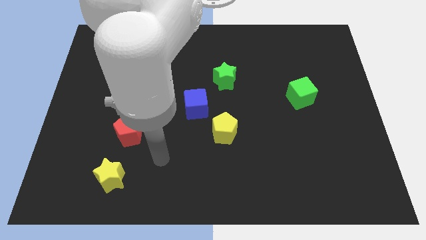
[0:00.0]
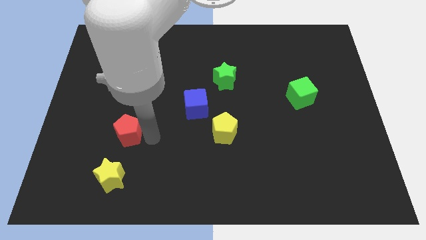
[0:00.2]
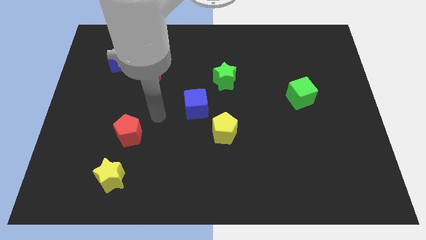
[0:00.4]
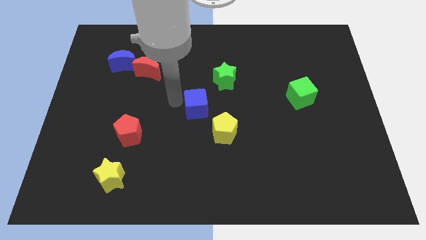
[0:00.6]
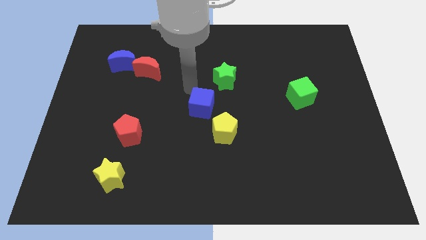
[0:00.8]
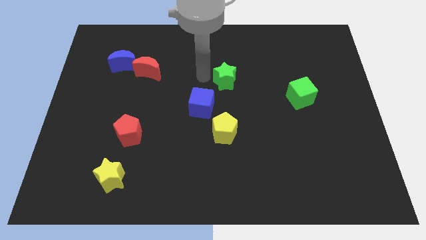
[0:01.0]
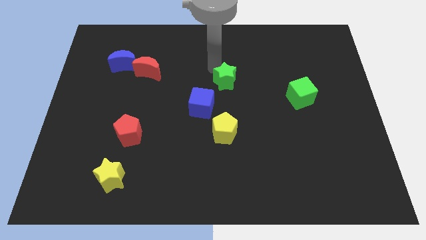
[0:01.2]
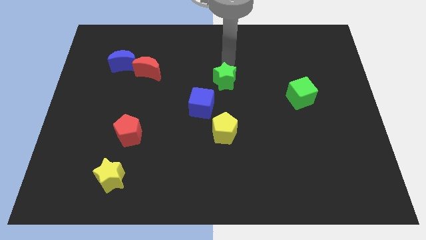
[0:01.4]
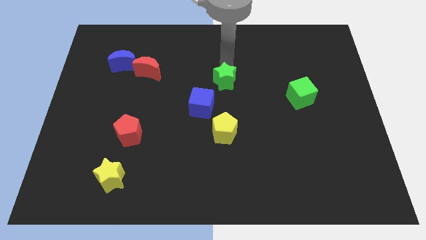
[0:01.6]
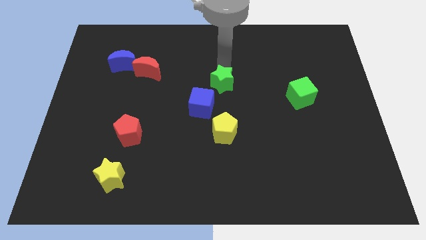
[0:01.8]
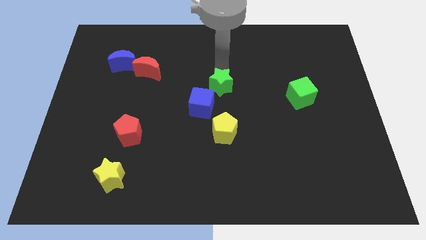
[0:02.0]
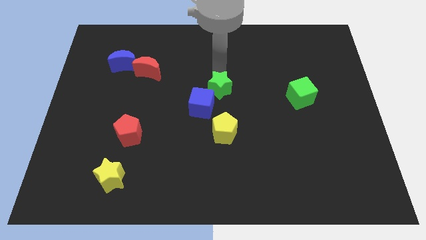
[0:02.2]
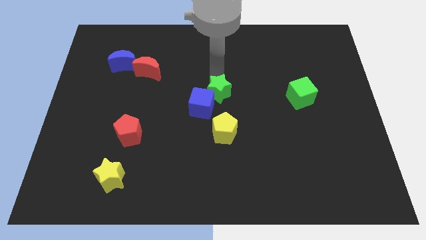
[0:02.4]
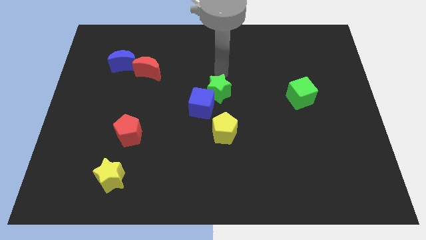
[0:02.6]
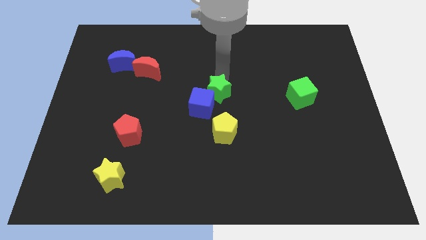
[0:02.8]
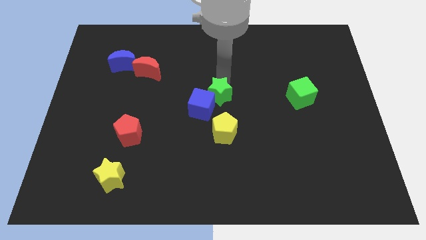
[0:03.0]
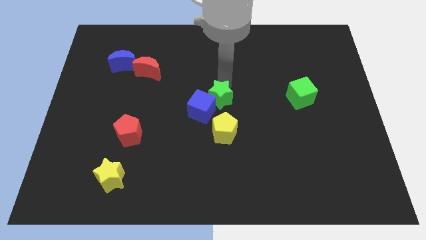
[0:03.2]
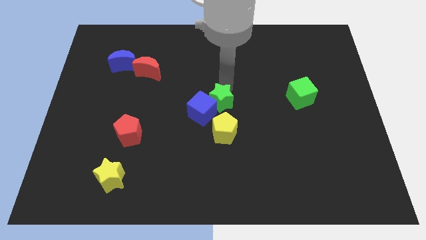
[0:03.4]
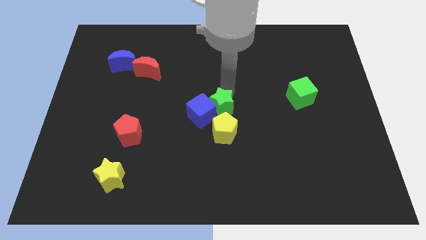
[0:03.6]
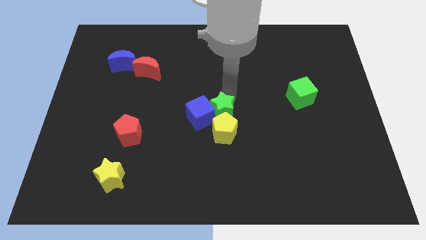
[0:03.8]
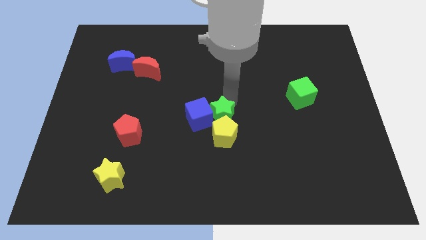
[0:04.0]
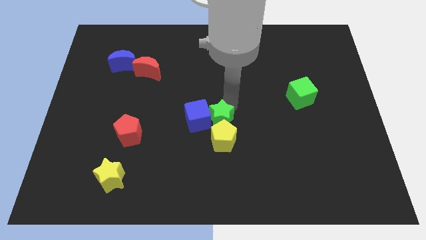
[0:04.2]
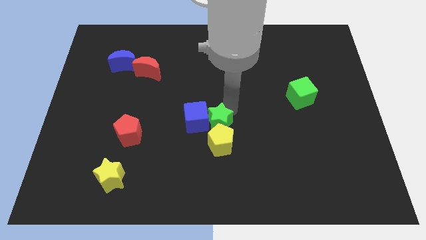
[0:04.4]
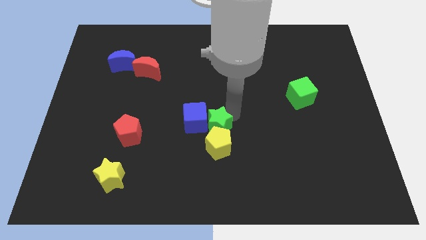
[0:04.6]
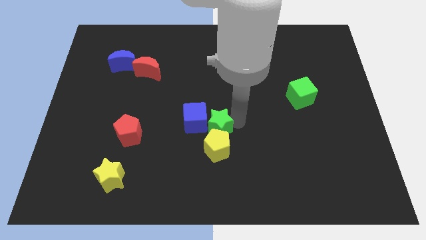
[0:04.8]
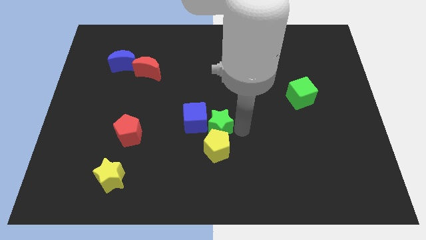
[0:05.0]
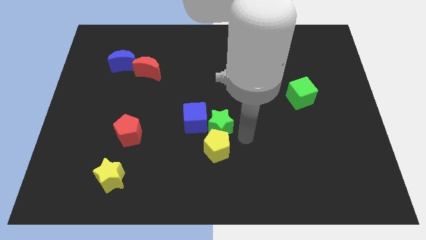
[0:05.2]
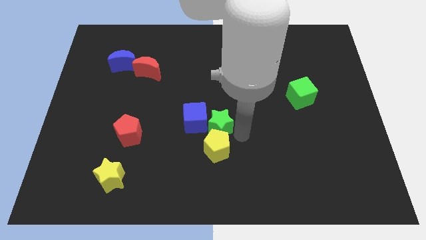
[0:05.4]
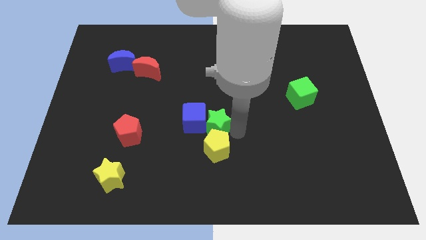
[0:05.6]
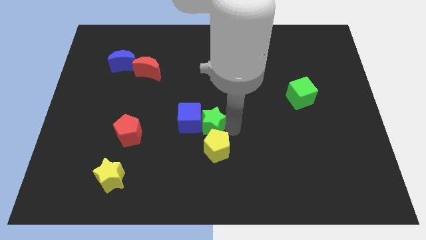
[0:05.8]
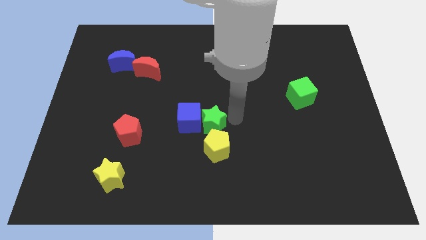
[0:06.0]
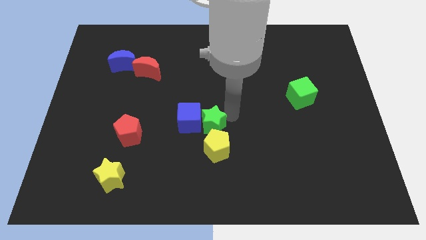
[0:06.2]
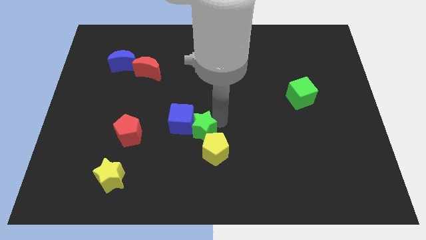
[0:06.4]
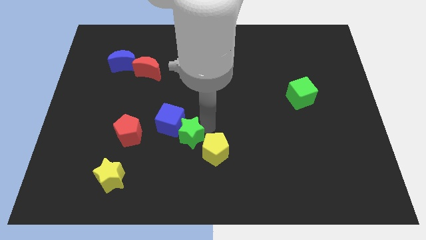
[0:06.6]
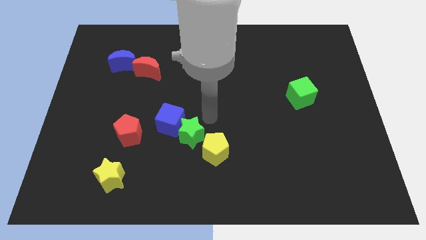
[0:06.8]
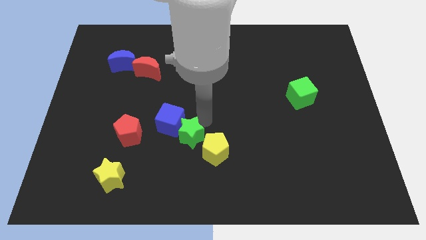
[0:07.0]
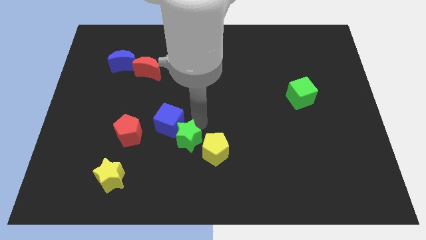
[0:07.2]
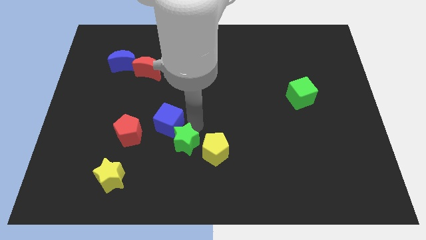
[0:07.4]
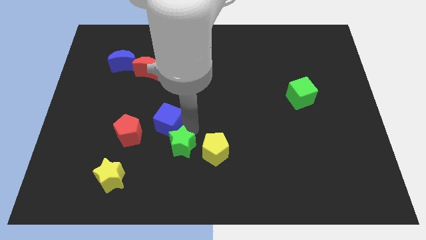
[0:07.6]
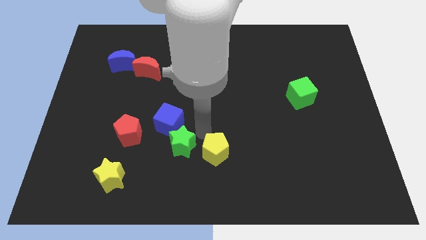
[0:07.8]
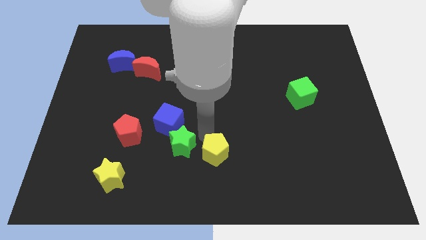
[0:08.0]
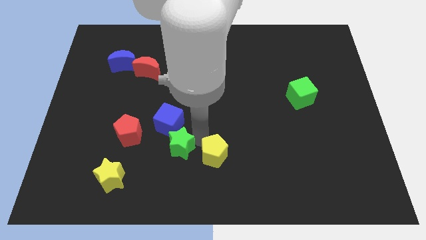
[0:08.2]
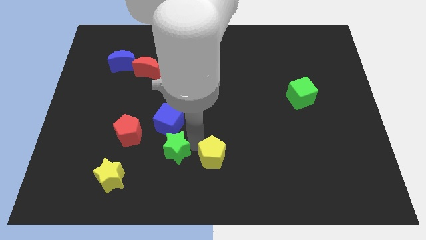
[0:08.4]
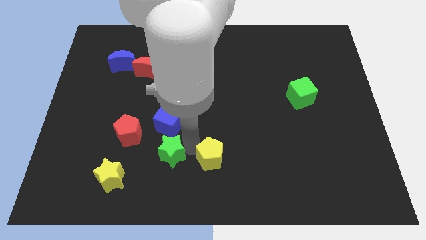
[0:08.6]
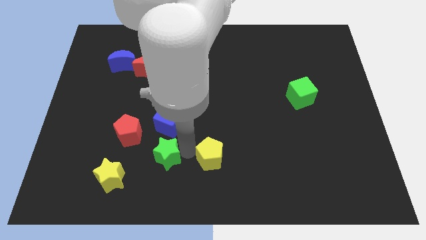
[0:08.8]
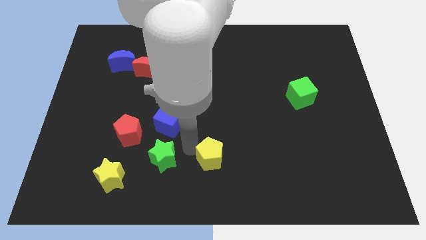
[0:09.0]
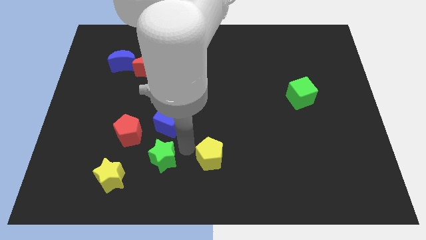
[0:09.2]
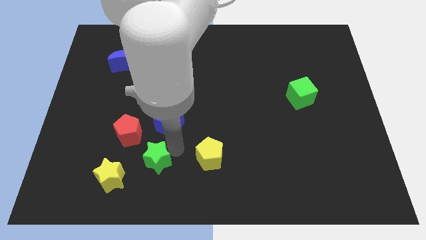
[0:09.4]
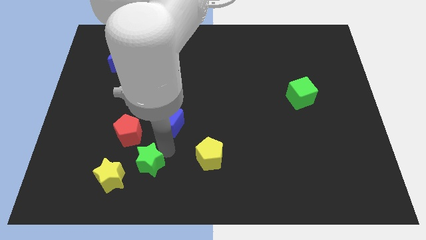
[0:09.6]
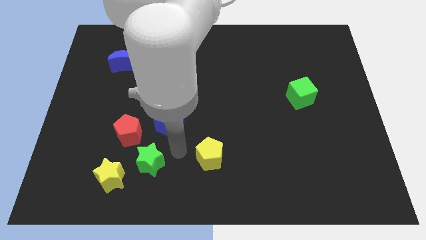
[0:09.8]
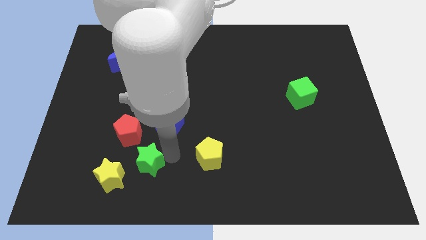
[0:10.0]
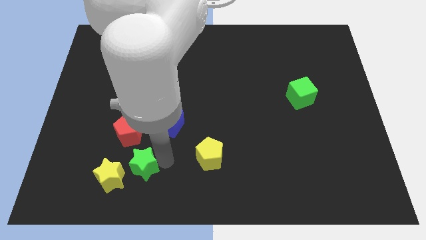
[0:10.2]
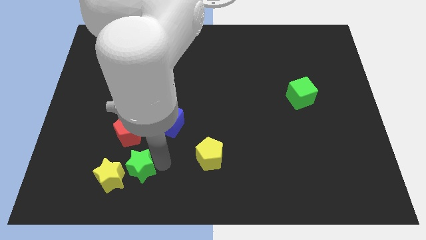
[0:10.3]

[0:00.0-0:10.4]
push the green star towards the yellow star

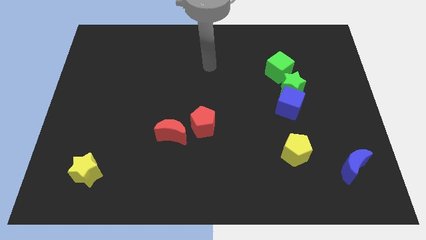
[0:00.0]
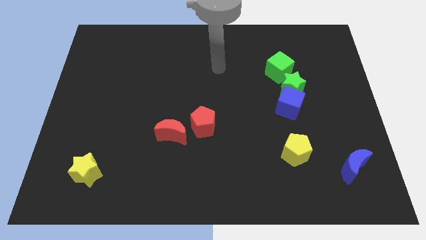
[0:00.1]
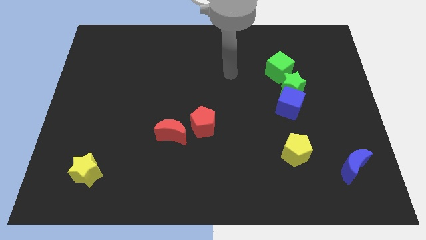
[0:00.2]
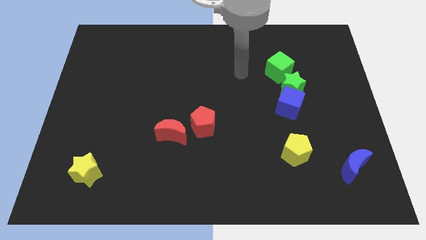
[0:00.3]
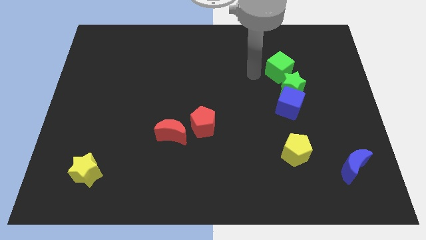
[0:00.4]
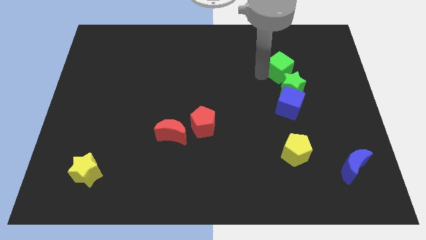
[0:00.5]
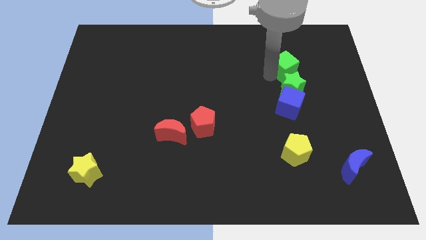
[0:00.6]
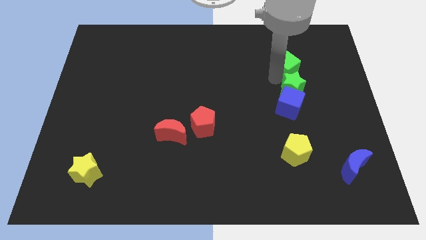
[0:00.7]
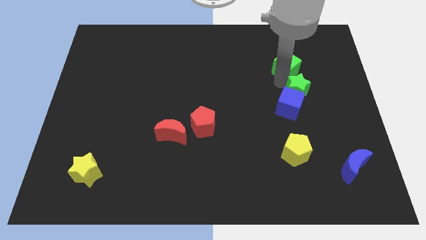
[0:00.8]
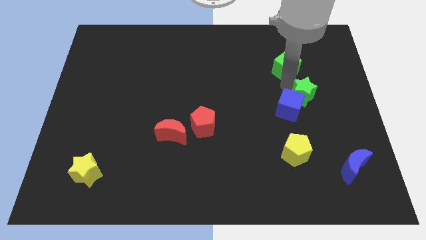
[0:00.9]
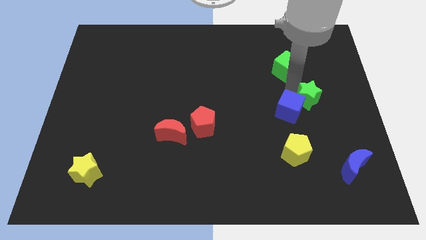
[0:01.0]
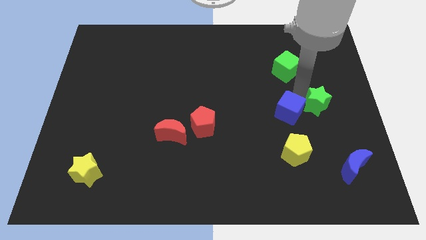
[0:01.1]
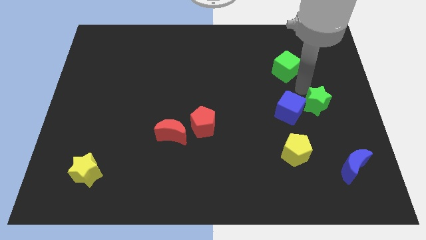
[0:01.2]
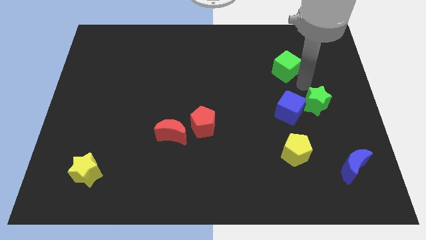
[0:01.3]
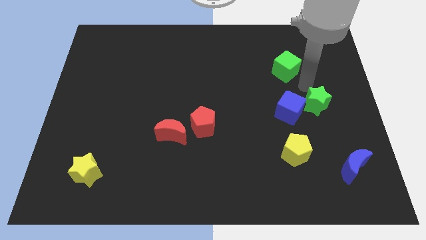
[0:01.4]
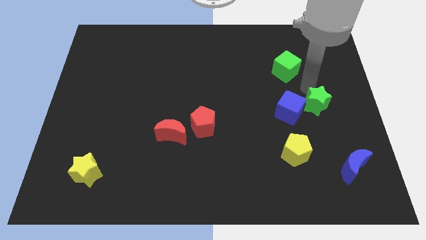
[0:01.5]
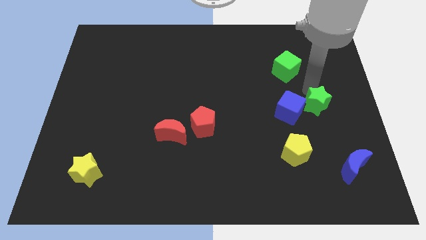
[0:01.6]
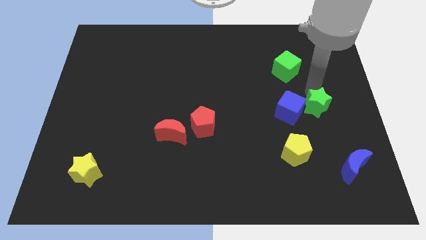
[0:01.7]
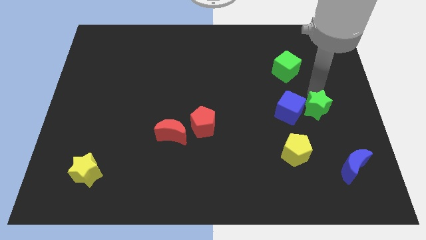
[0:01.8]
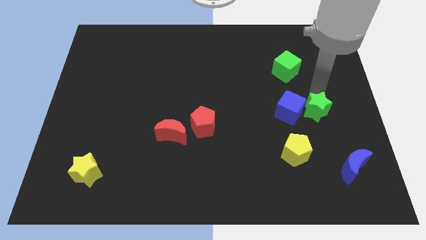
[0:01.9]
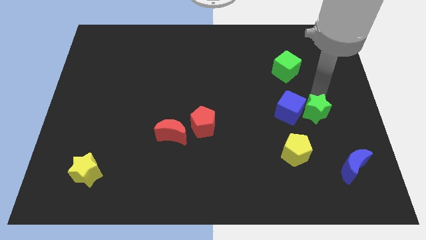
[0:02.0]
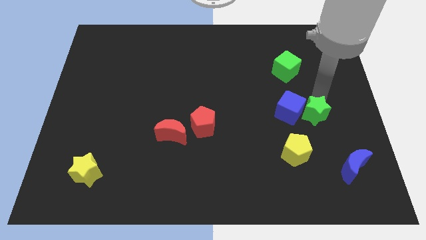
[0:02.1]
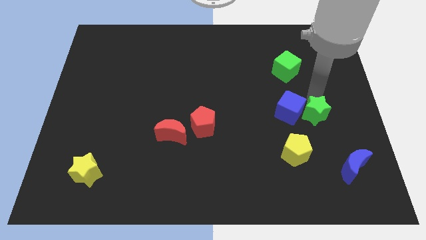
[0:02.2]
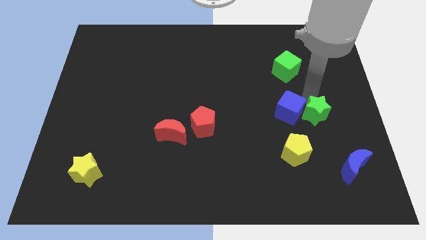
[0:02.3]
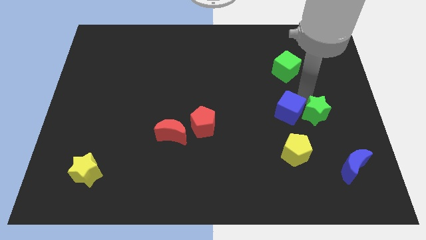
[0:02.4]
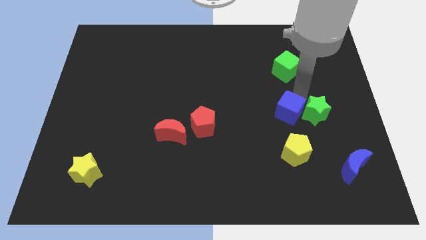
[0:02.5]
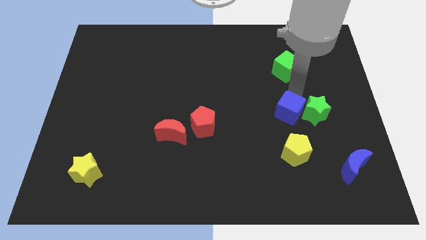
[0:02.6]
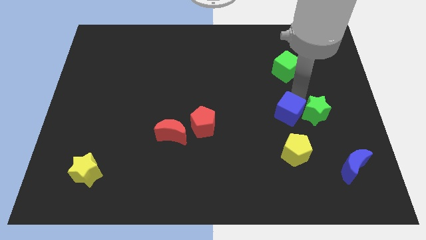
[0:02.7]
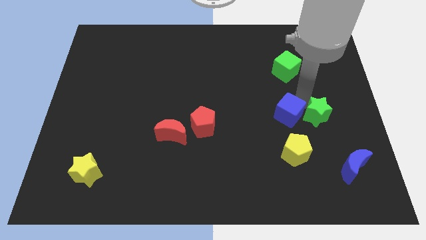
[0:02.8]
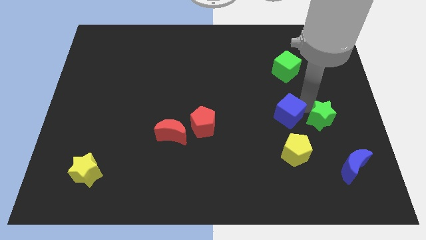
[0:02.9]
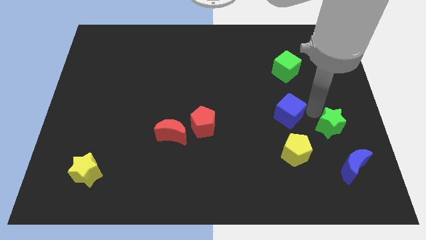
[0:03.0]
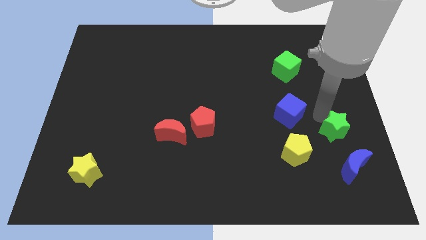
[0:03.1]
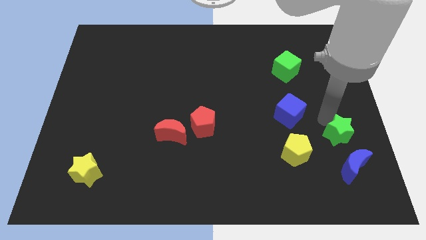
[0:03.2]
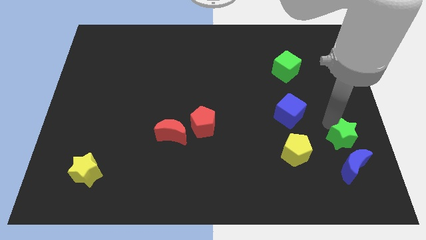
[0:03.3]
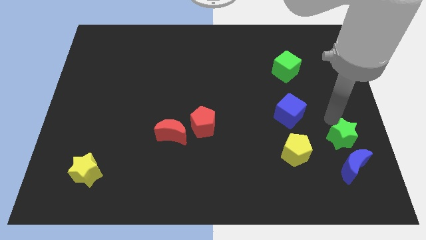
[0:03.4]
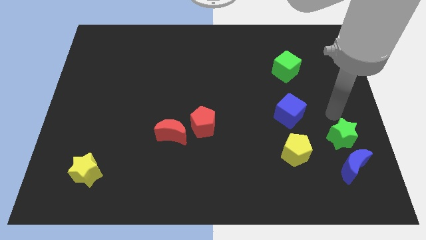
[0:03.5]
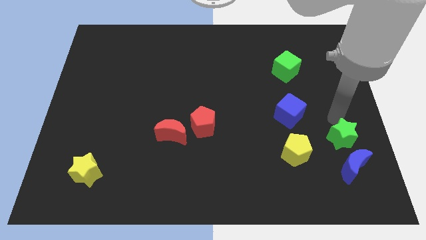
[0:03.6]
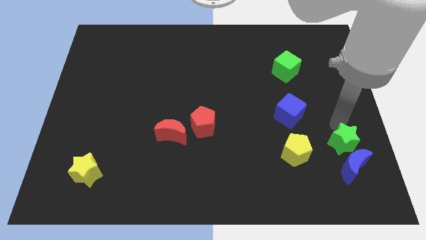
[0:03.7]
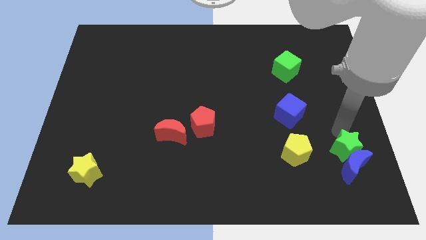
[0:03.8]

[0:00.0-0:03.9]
put the green star next to the blue moon
